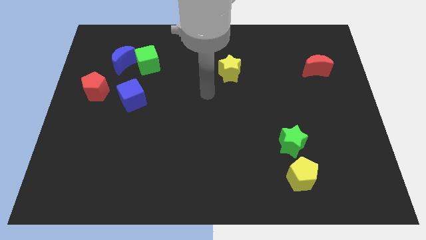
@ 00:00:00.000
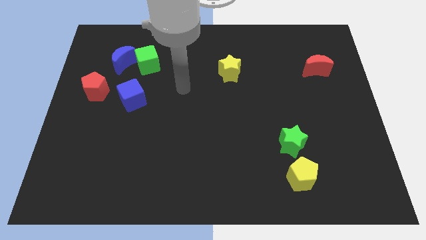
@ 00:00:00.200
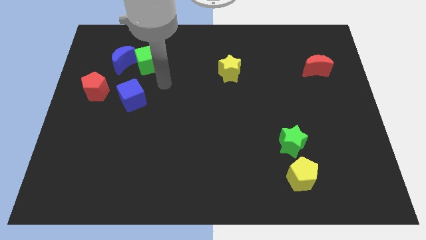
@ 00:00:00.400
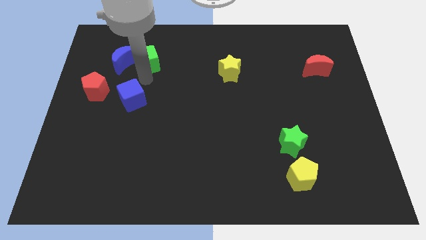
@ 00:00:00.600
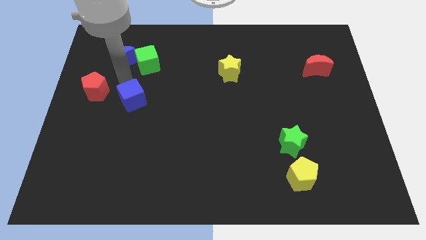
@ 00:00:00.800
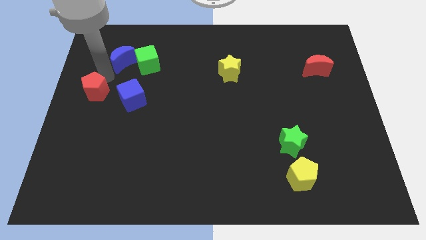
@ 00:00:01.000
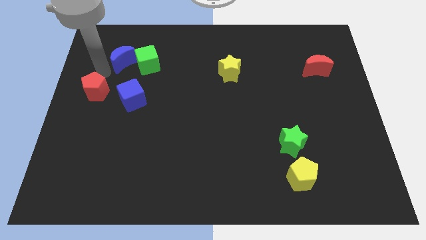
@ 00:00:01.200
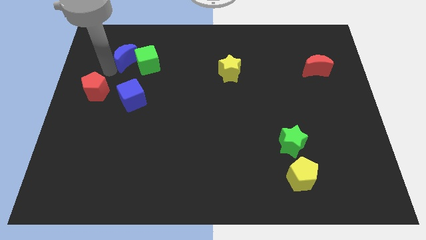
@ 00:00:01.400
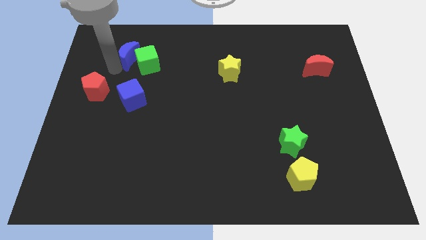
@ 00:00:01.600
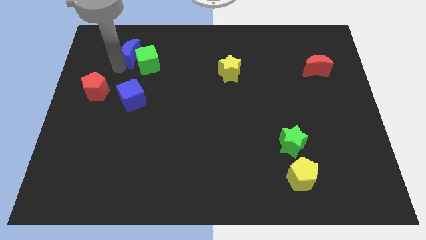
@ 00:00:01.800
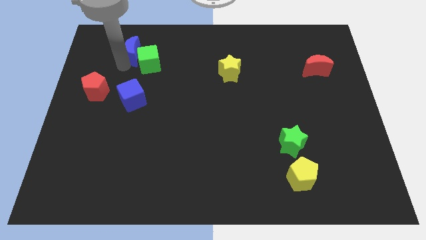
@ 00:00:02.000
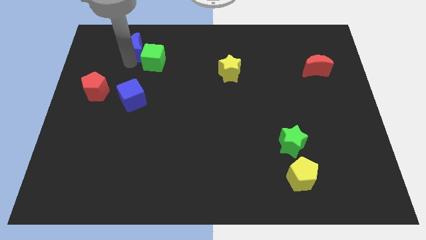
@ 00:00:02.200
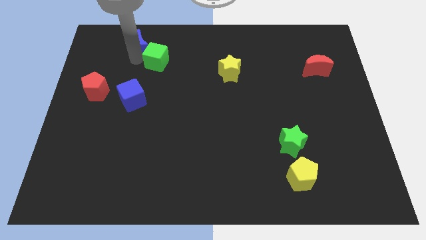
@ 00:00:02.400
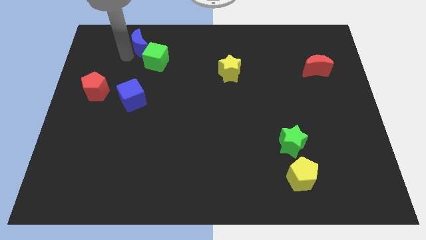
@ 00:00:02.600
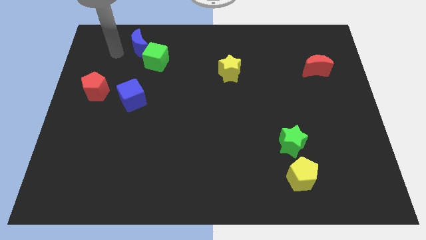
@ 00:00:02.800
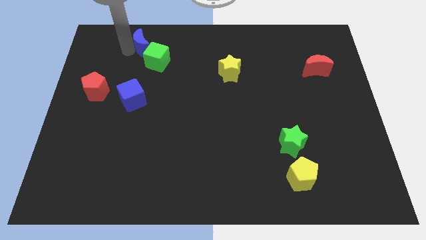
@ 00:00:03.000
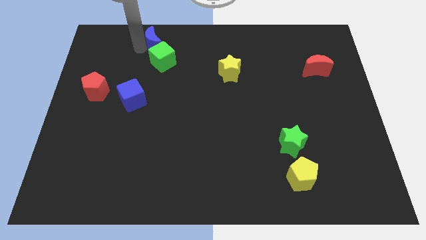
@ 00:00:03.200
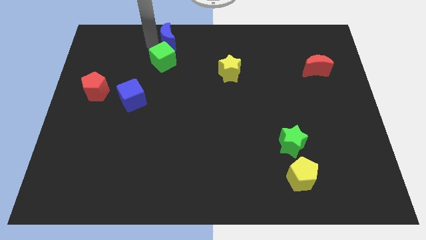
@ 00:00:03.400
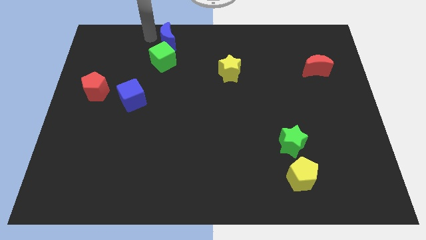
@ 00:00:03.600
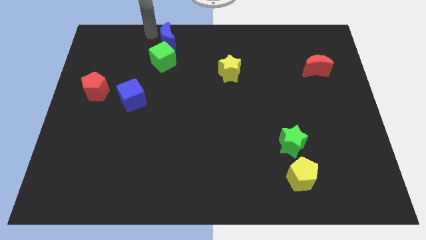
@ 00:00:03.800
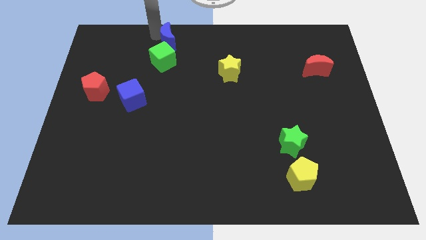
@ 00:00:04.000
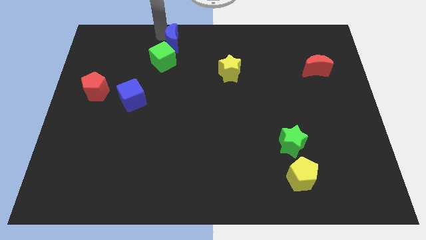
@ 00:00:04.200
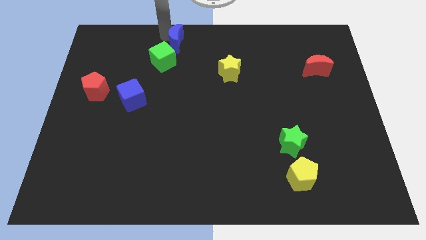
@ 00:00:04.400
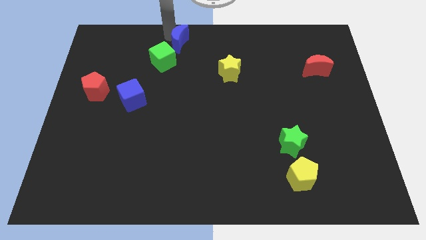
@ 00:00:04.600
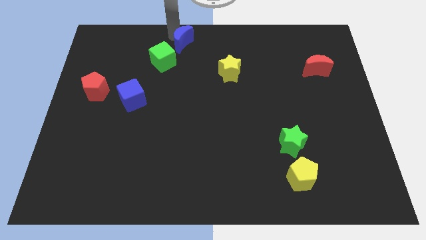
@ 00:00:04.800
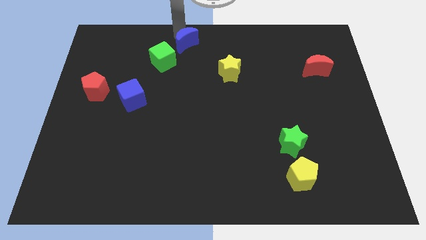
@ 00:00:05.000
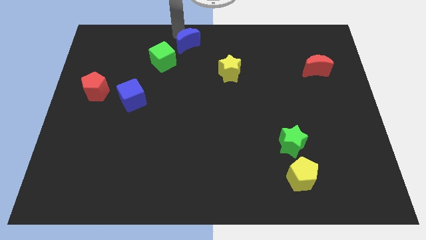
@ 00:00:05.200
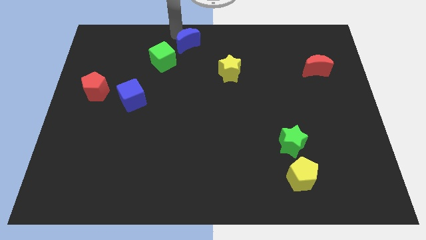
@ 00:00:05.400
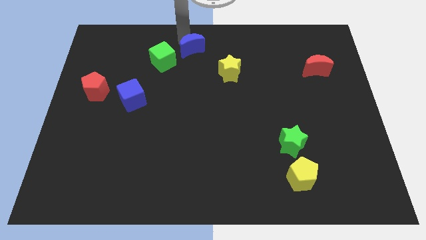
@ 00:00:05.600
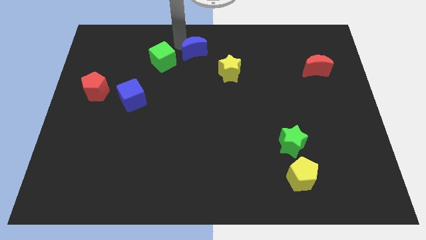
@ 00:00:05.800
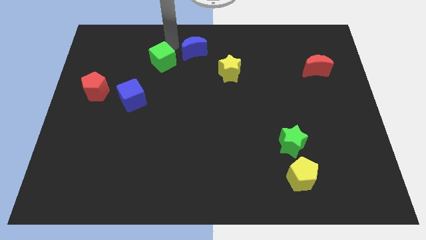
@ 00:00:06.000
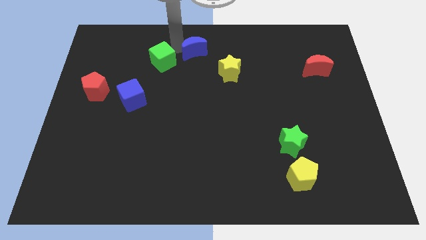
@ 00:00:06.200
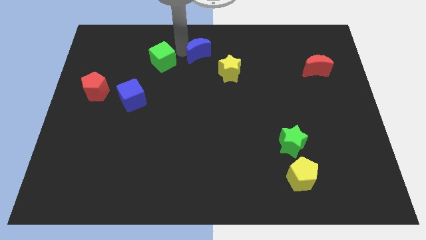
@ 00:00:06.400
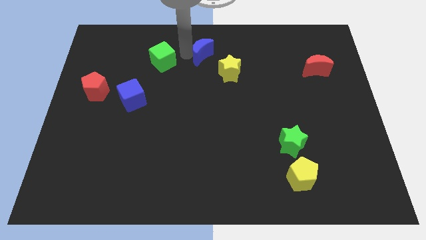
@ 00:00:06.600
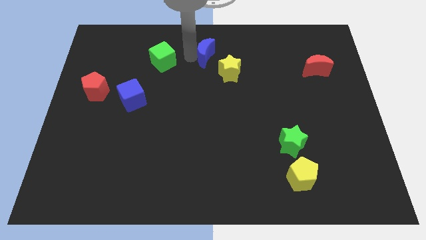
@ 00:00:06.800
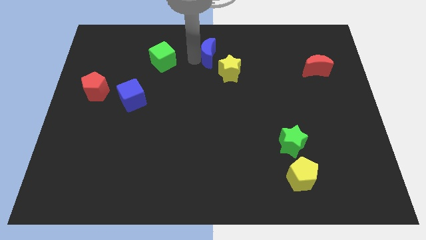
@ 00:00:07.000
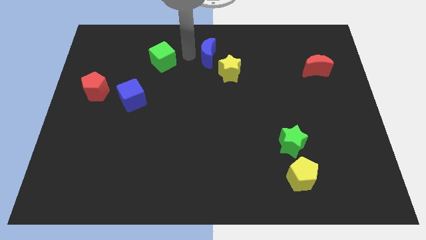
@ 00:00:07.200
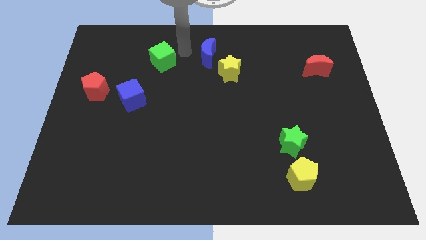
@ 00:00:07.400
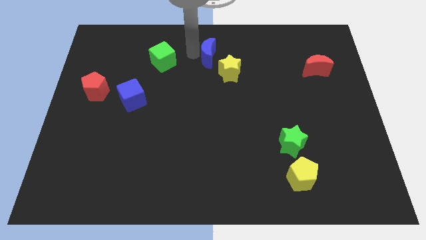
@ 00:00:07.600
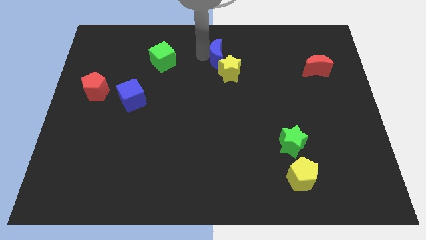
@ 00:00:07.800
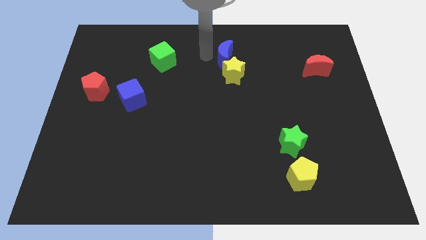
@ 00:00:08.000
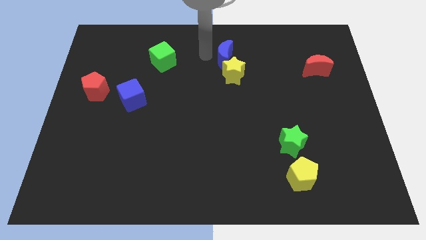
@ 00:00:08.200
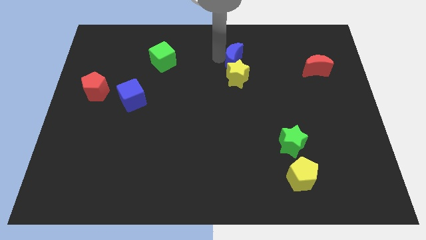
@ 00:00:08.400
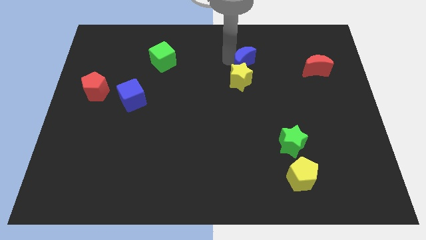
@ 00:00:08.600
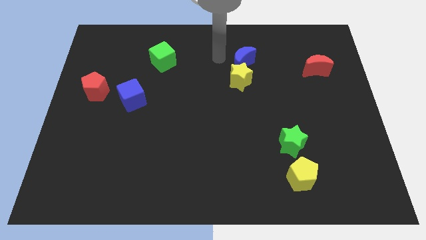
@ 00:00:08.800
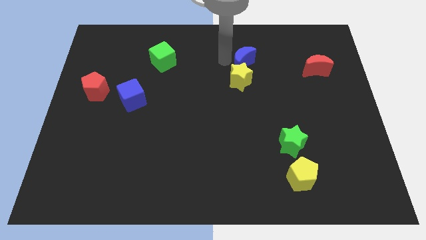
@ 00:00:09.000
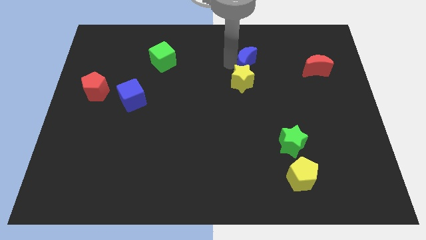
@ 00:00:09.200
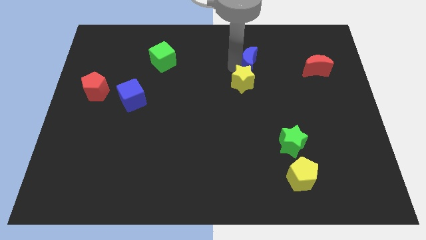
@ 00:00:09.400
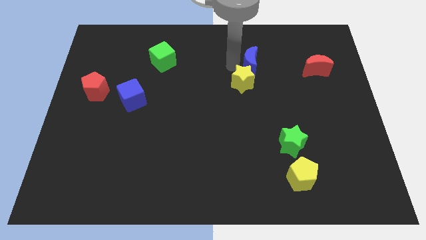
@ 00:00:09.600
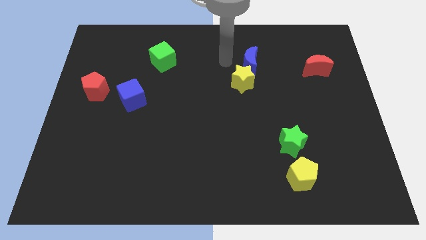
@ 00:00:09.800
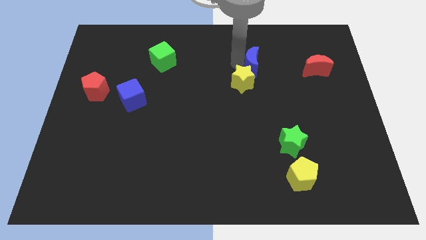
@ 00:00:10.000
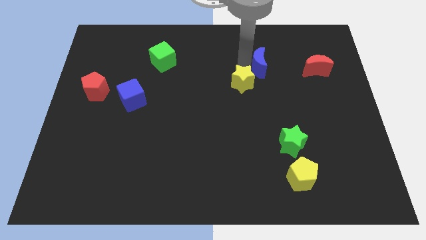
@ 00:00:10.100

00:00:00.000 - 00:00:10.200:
push the blue moon just left of the red moon

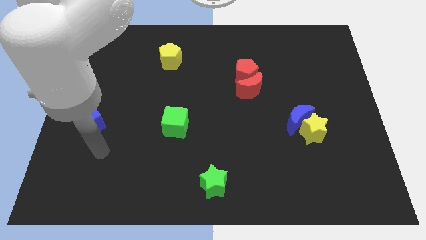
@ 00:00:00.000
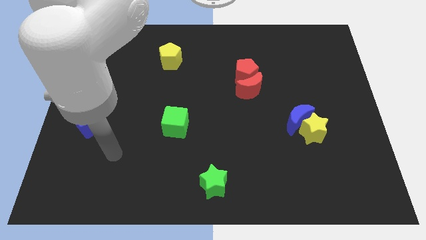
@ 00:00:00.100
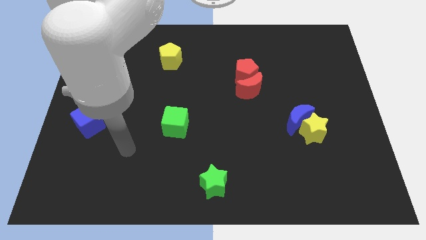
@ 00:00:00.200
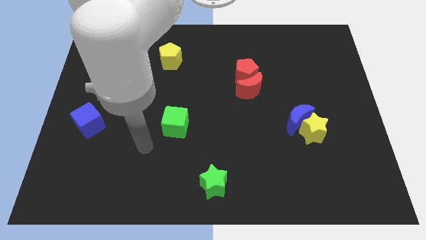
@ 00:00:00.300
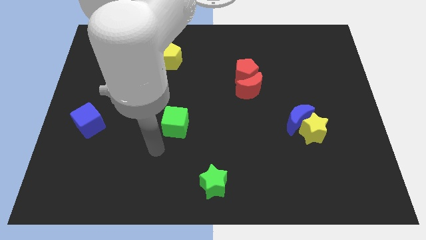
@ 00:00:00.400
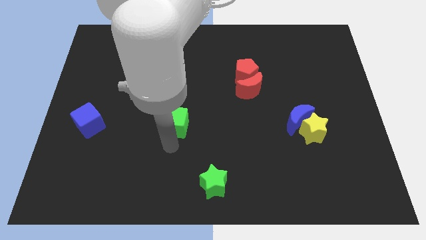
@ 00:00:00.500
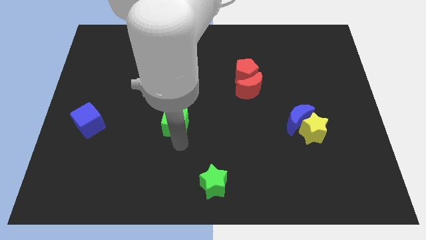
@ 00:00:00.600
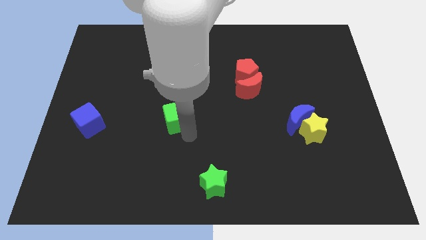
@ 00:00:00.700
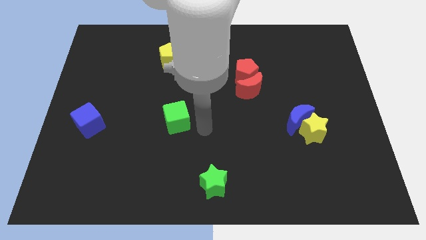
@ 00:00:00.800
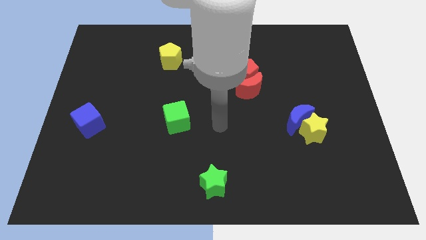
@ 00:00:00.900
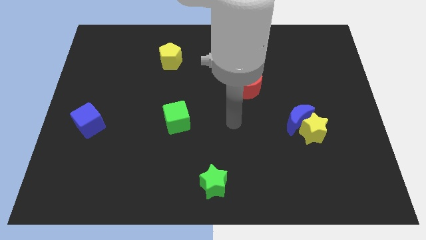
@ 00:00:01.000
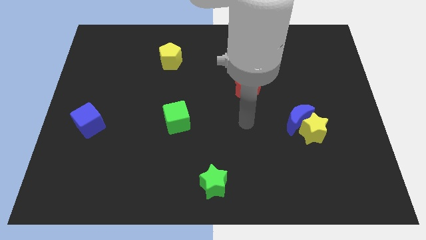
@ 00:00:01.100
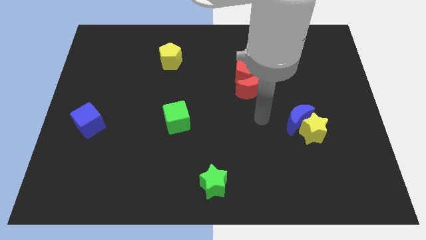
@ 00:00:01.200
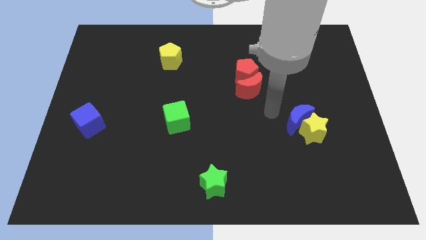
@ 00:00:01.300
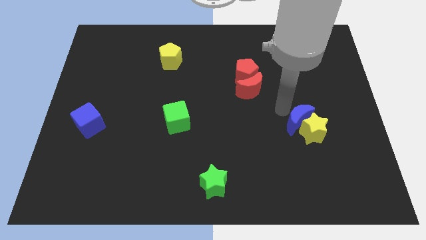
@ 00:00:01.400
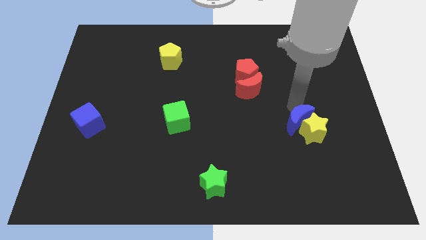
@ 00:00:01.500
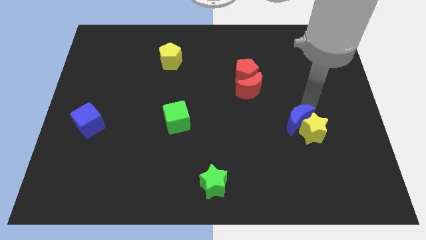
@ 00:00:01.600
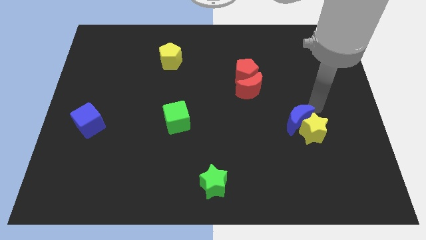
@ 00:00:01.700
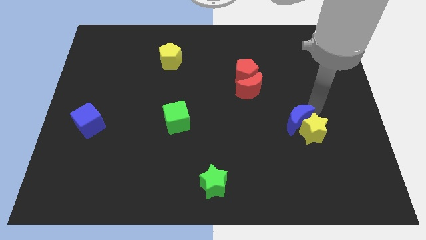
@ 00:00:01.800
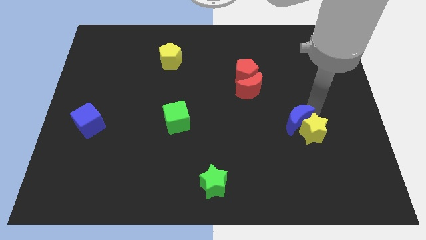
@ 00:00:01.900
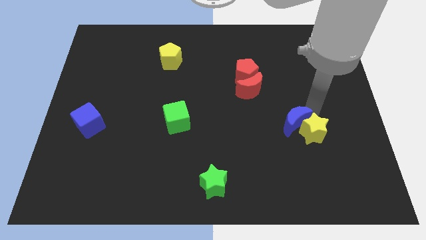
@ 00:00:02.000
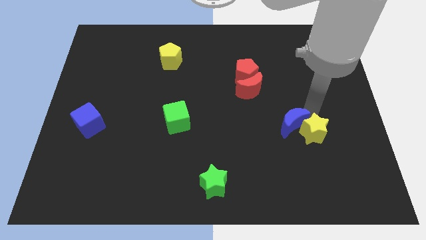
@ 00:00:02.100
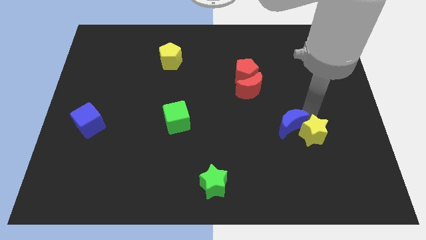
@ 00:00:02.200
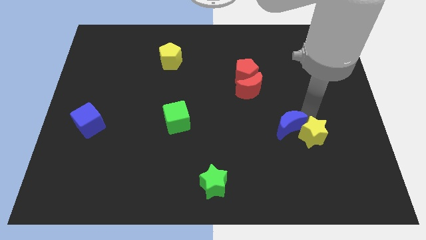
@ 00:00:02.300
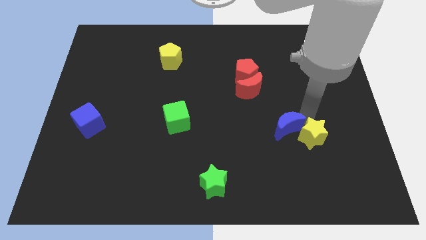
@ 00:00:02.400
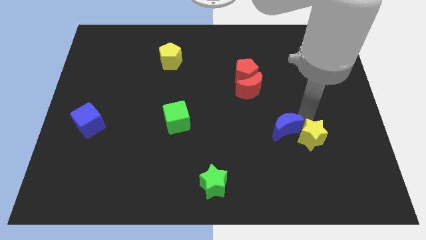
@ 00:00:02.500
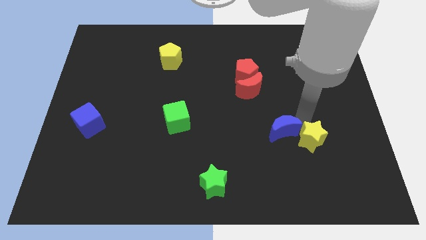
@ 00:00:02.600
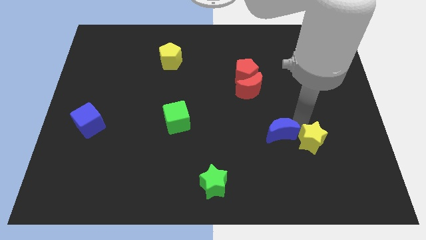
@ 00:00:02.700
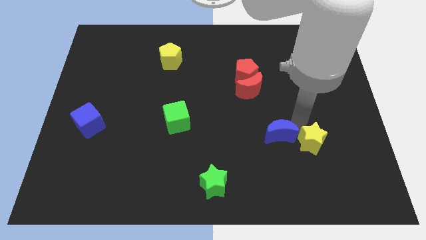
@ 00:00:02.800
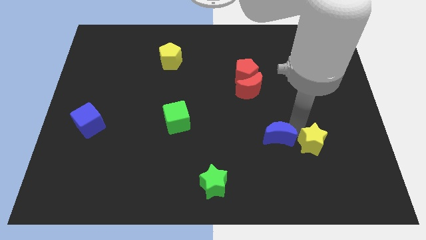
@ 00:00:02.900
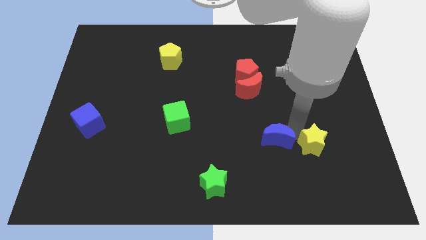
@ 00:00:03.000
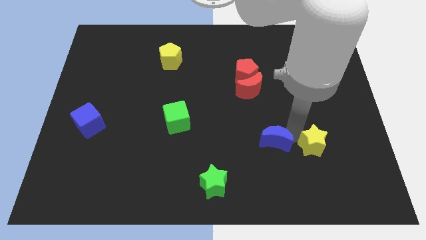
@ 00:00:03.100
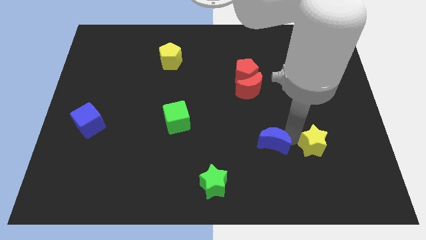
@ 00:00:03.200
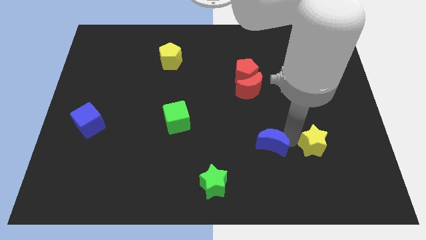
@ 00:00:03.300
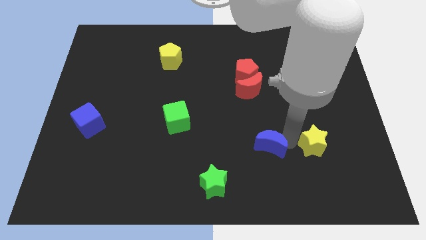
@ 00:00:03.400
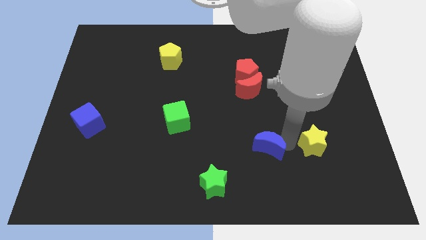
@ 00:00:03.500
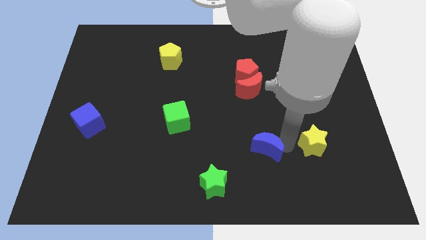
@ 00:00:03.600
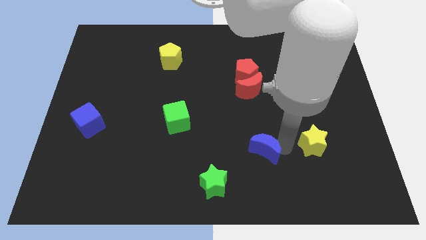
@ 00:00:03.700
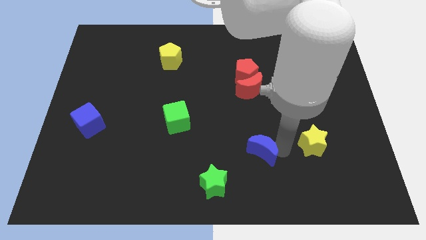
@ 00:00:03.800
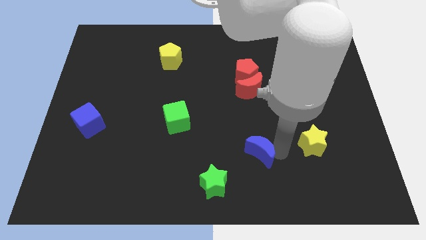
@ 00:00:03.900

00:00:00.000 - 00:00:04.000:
put the blue moon diagonally up and to the right of the green star
